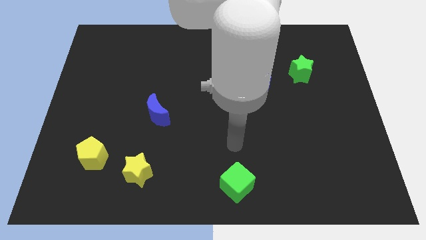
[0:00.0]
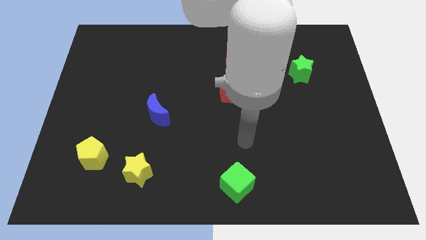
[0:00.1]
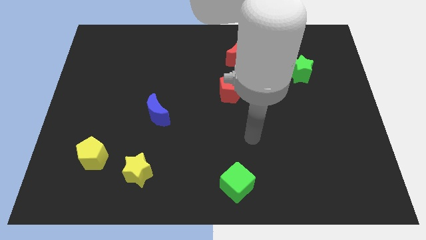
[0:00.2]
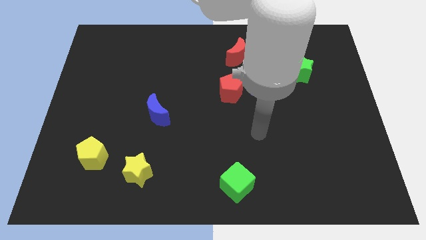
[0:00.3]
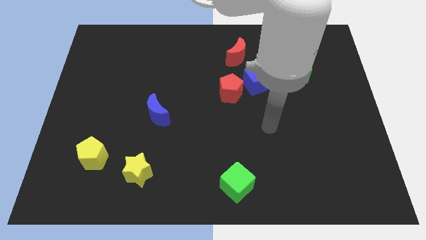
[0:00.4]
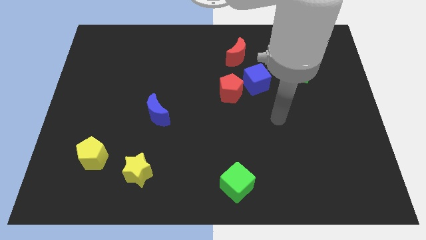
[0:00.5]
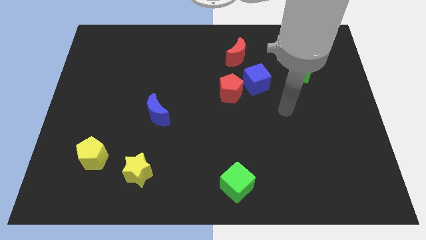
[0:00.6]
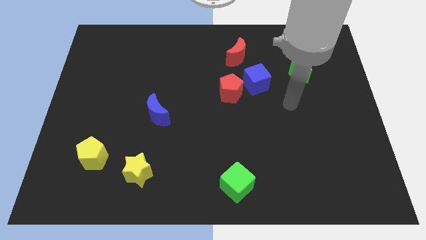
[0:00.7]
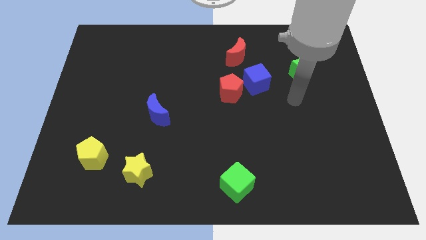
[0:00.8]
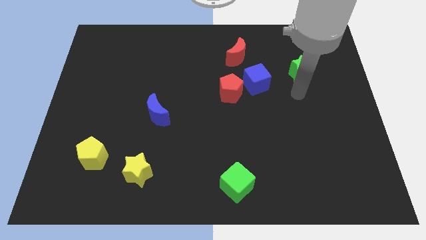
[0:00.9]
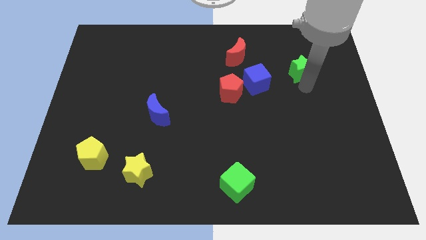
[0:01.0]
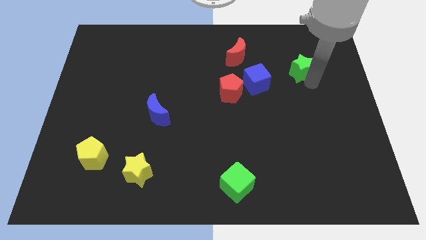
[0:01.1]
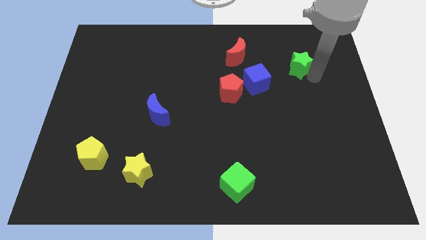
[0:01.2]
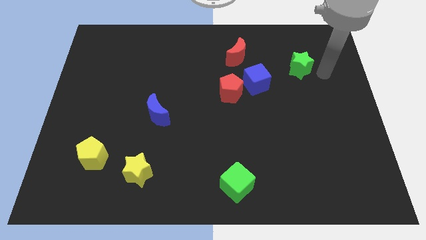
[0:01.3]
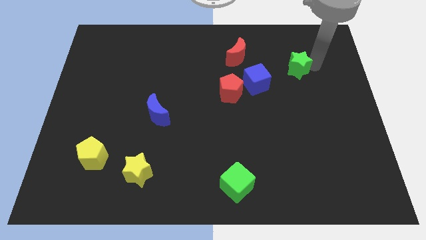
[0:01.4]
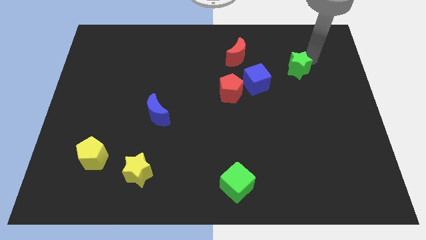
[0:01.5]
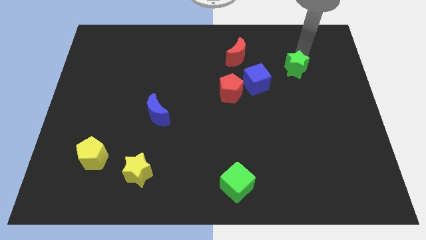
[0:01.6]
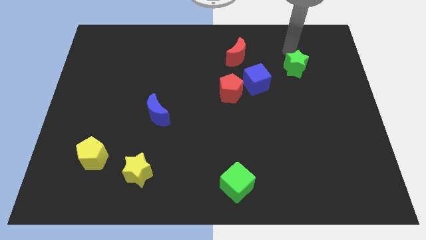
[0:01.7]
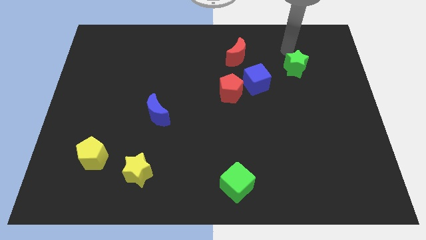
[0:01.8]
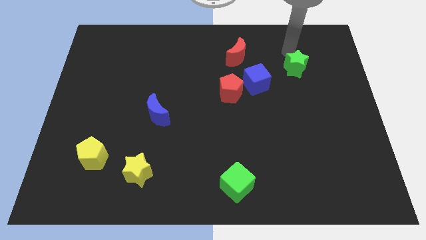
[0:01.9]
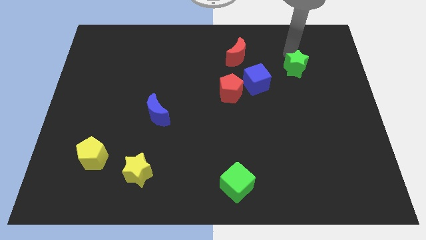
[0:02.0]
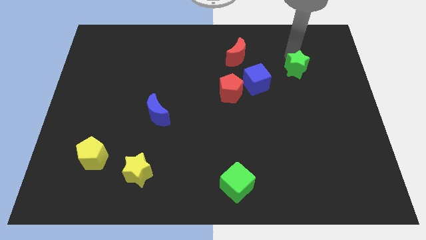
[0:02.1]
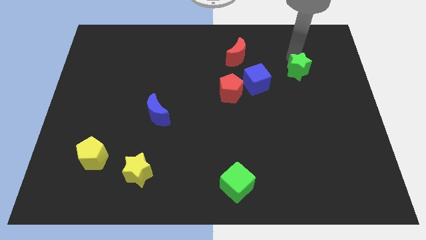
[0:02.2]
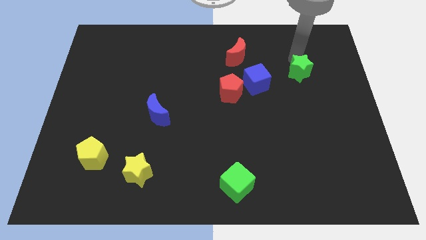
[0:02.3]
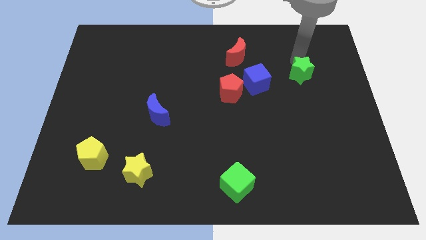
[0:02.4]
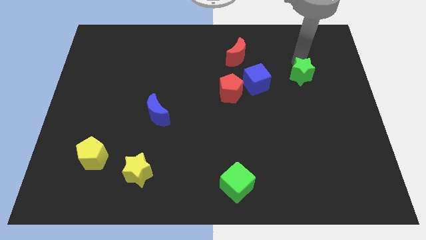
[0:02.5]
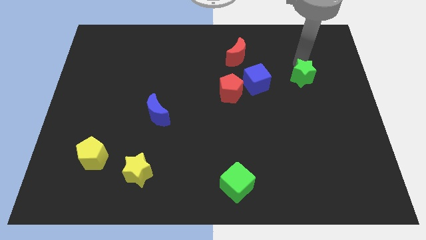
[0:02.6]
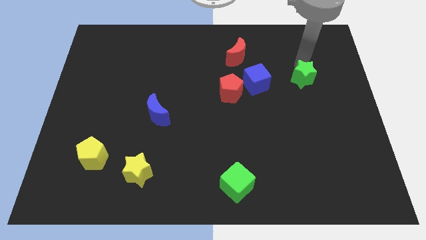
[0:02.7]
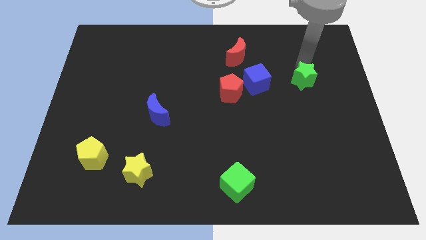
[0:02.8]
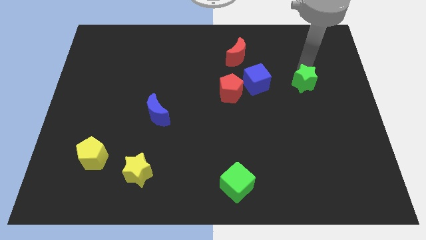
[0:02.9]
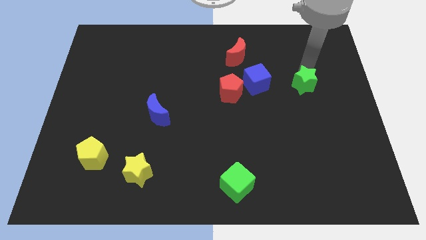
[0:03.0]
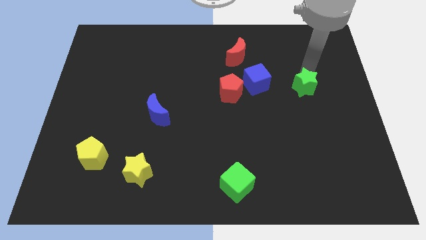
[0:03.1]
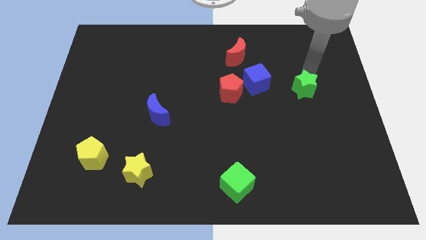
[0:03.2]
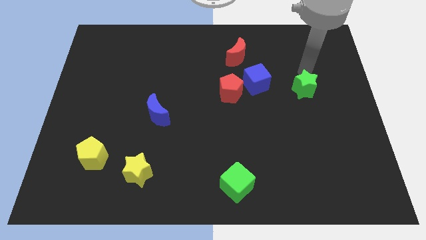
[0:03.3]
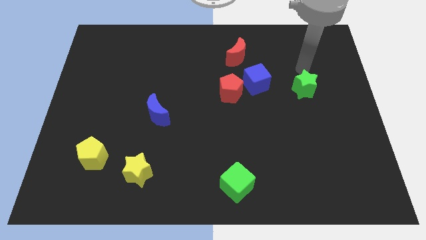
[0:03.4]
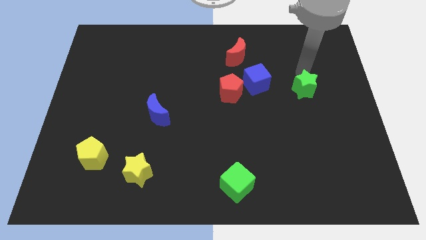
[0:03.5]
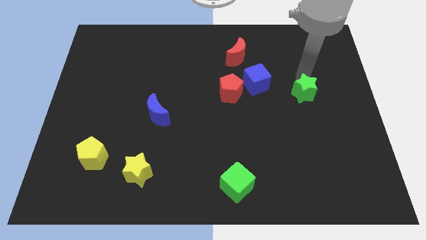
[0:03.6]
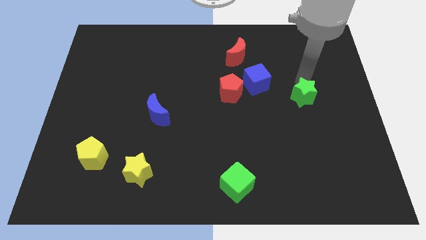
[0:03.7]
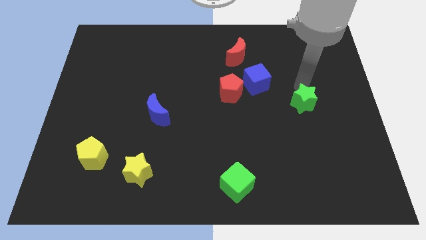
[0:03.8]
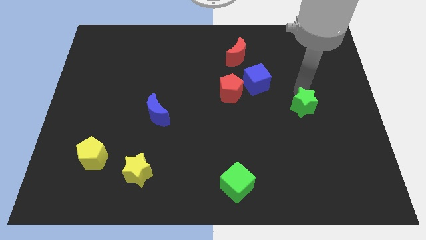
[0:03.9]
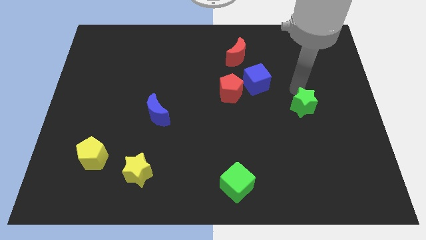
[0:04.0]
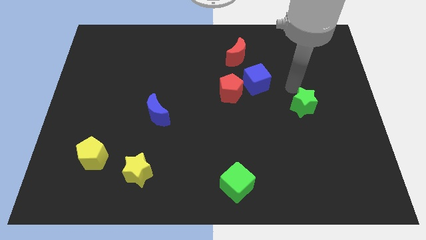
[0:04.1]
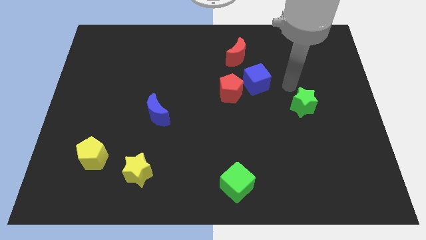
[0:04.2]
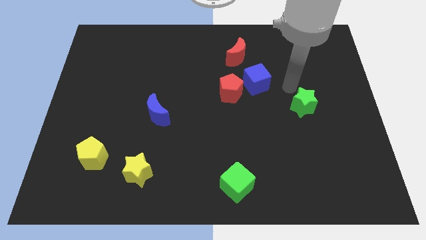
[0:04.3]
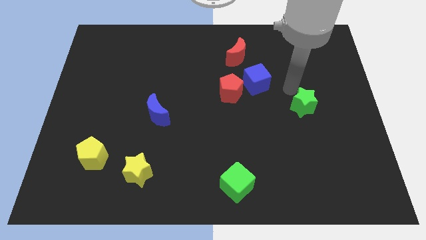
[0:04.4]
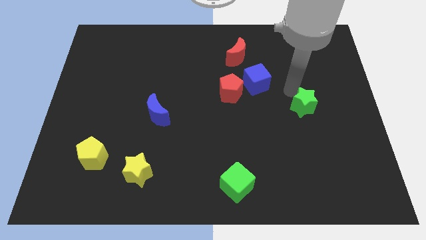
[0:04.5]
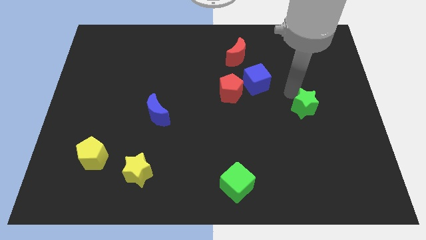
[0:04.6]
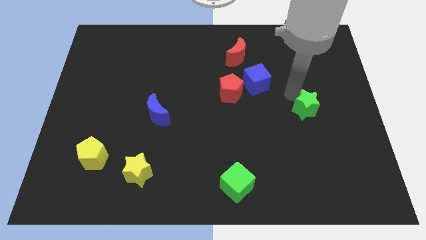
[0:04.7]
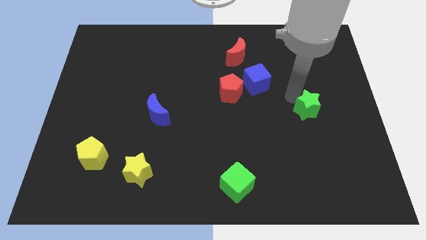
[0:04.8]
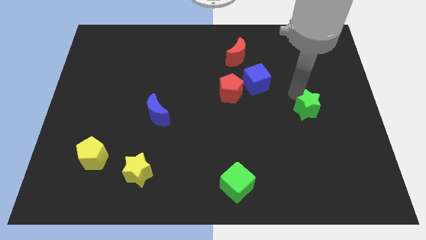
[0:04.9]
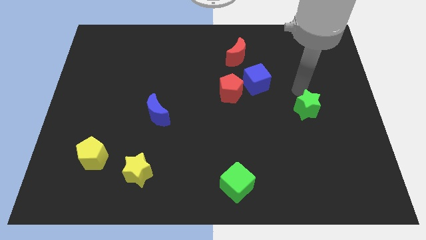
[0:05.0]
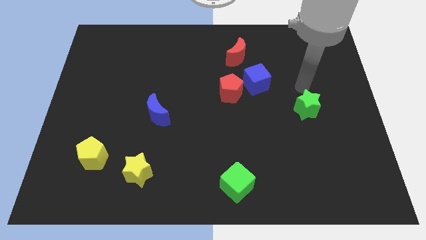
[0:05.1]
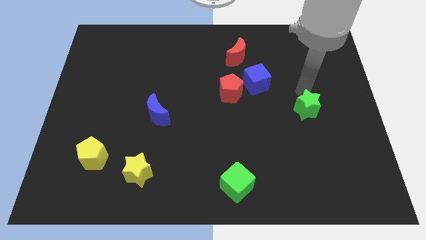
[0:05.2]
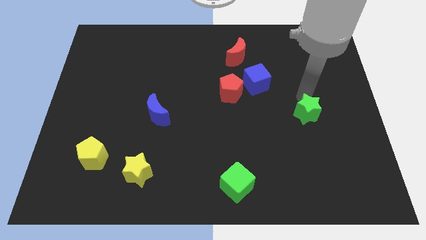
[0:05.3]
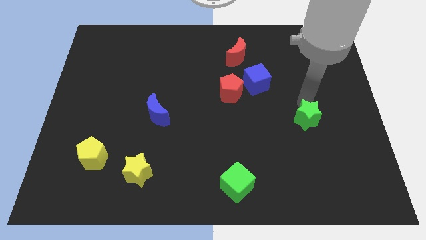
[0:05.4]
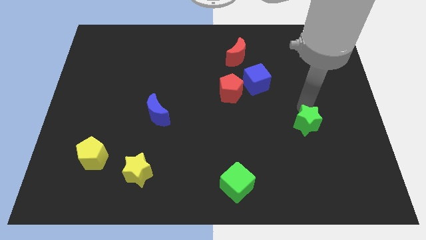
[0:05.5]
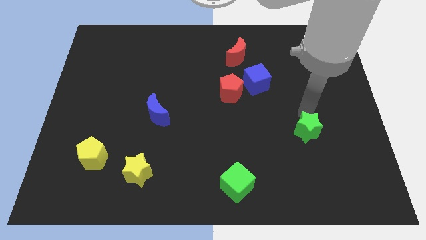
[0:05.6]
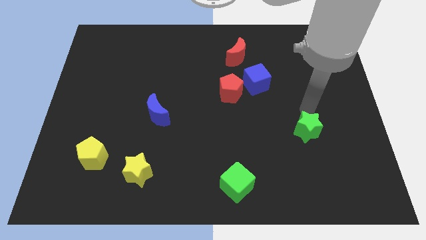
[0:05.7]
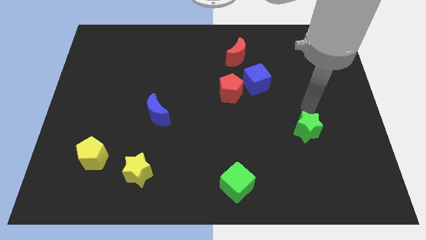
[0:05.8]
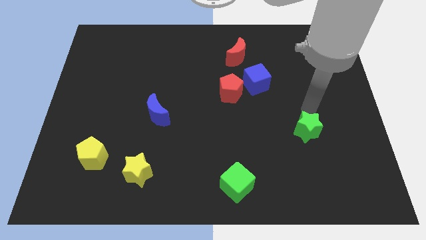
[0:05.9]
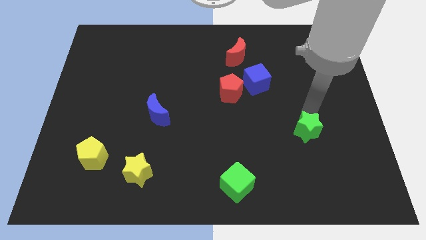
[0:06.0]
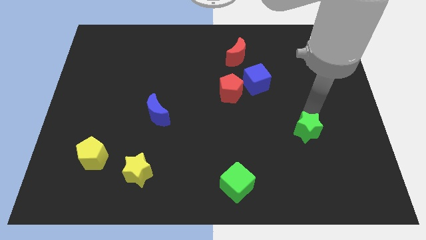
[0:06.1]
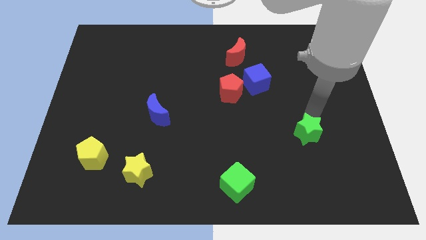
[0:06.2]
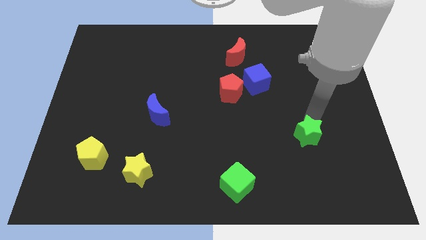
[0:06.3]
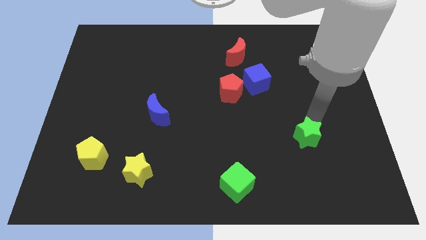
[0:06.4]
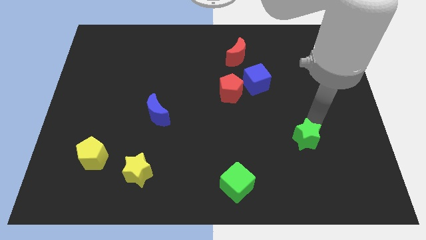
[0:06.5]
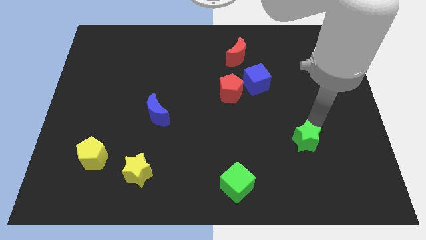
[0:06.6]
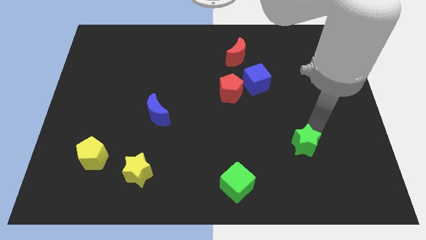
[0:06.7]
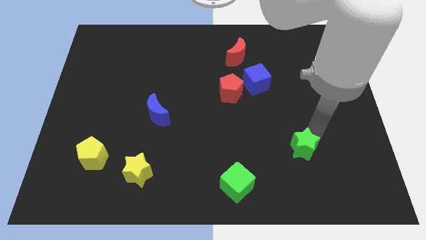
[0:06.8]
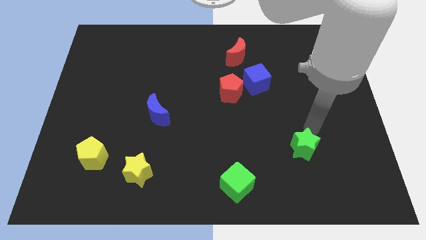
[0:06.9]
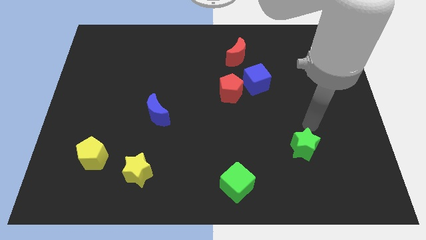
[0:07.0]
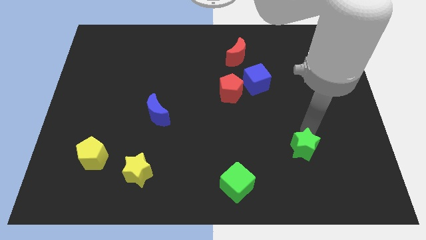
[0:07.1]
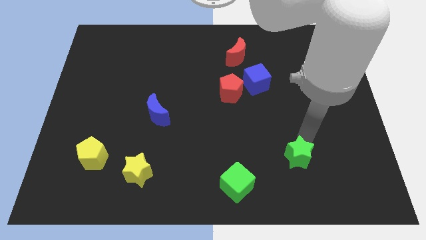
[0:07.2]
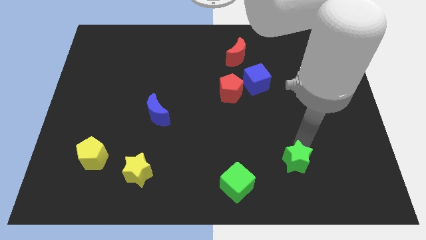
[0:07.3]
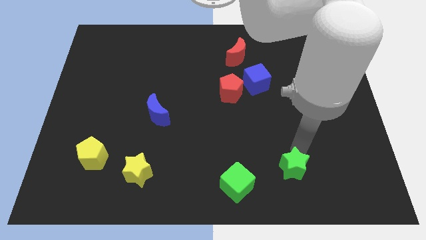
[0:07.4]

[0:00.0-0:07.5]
slide the green star to the right side of the green cube

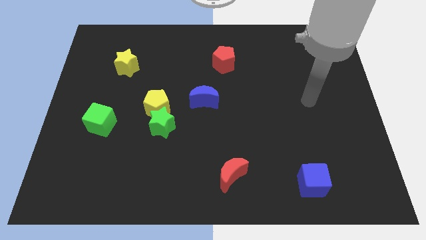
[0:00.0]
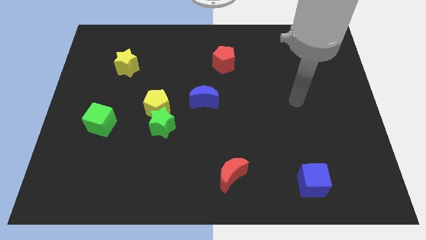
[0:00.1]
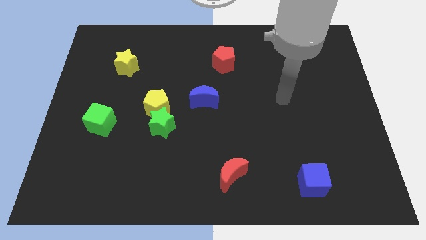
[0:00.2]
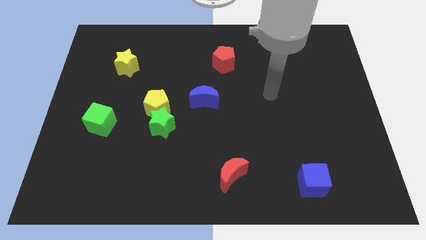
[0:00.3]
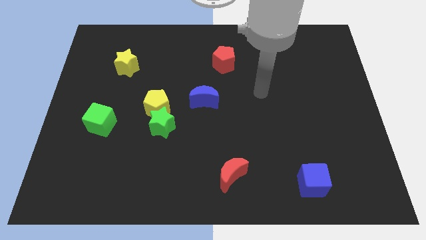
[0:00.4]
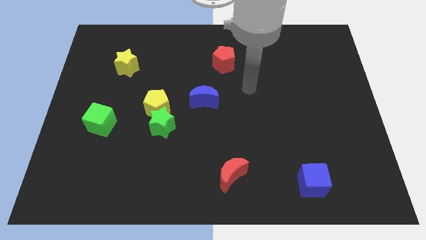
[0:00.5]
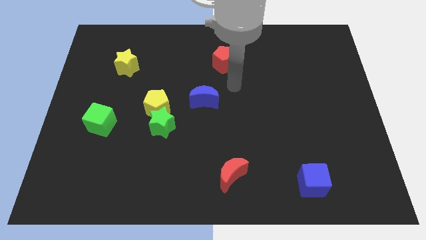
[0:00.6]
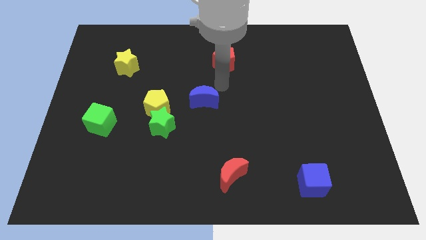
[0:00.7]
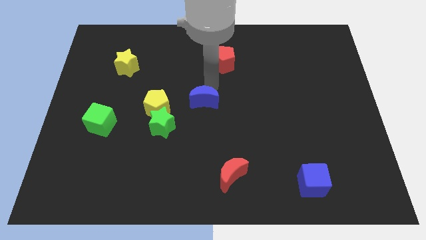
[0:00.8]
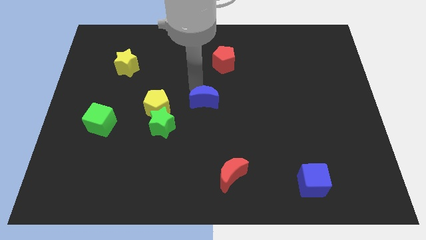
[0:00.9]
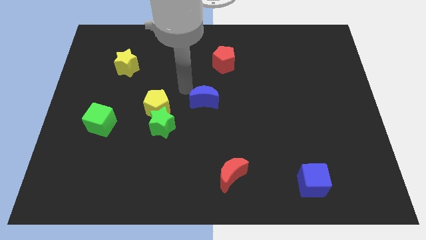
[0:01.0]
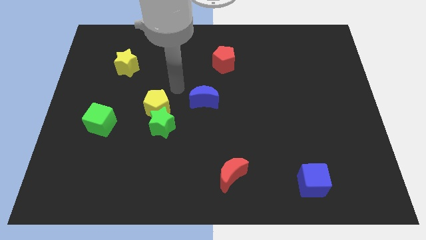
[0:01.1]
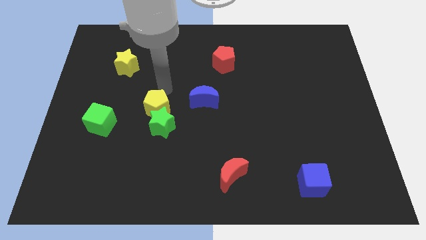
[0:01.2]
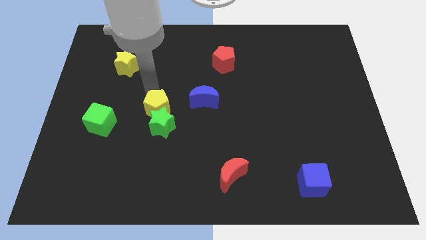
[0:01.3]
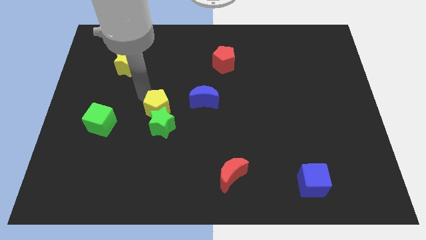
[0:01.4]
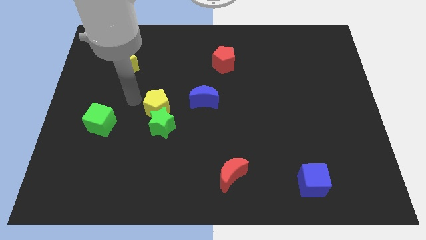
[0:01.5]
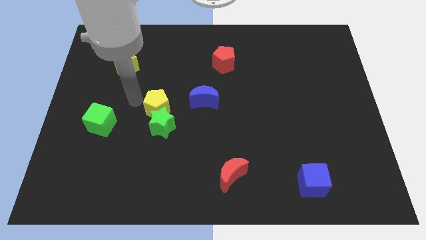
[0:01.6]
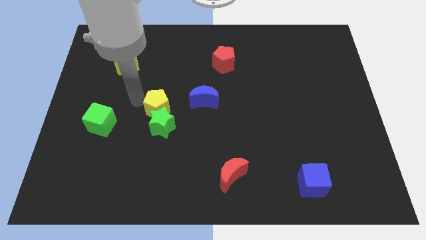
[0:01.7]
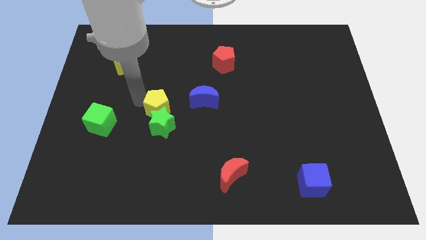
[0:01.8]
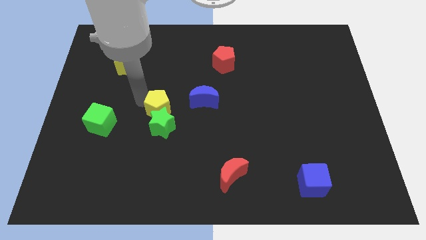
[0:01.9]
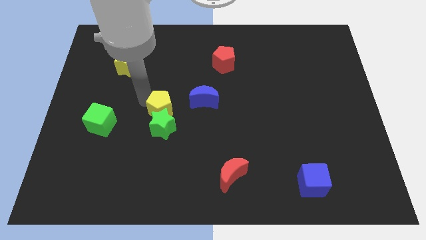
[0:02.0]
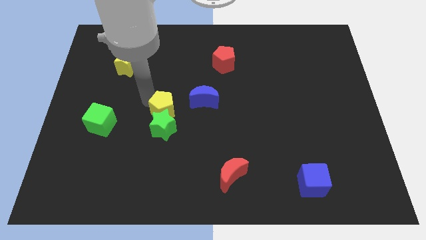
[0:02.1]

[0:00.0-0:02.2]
push the yellow pentagon to the bottom left of the blue moon
